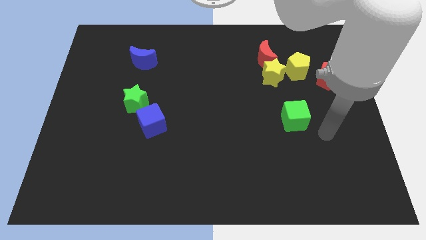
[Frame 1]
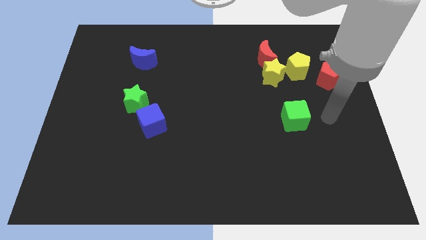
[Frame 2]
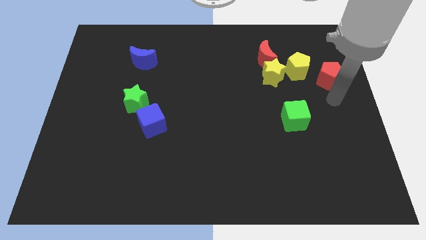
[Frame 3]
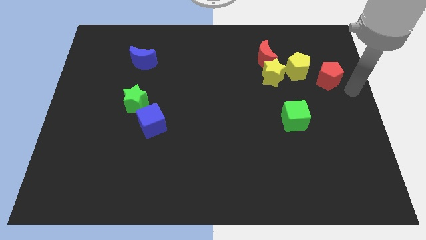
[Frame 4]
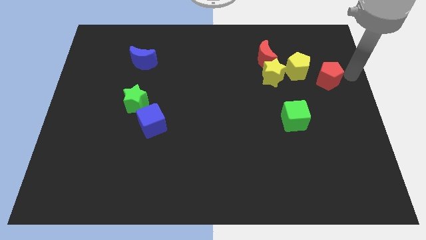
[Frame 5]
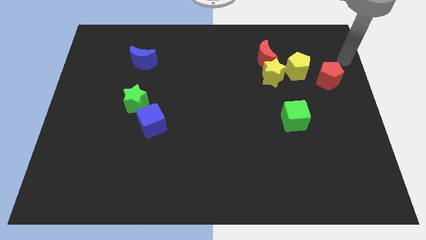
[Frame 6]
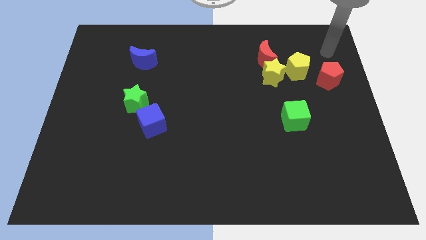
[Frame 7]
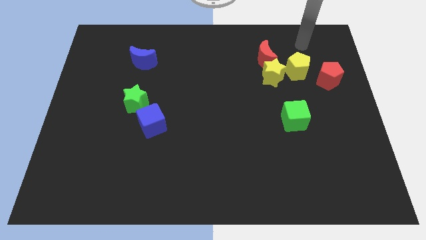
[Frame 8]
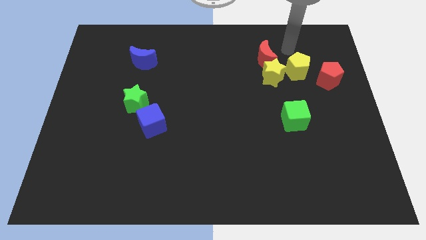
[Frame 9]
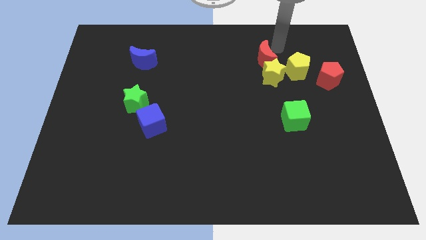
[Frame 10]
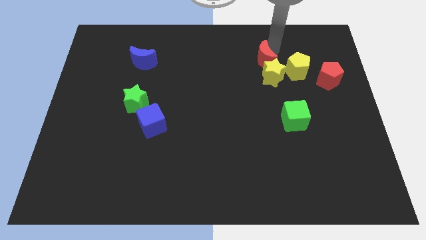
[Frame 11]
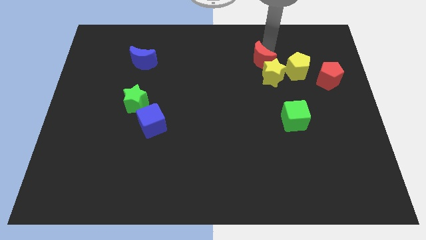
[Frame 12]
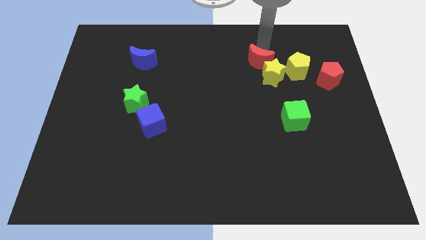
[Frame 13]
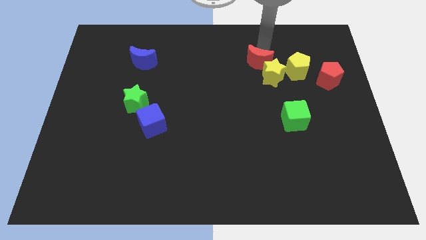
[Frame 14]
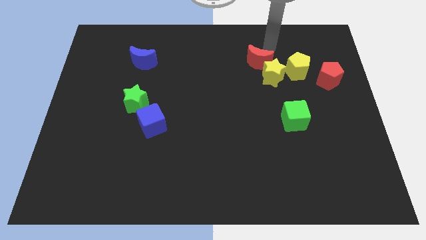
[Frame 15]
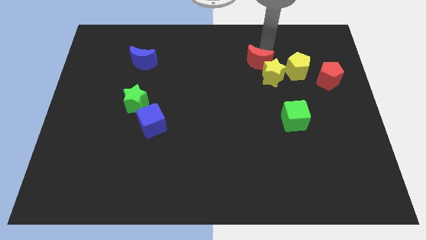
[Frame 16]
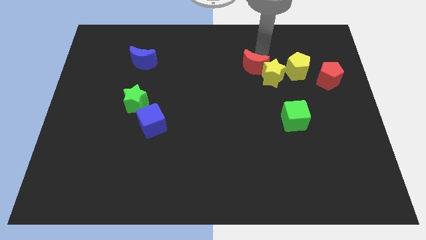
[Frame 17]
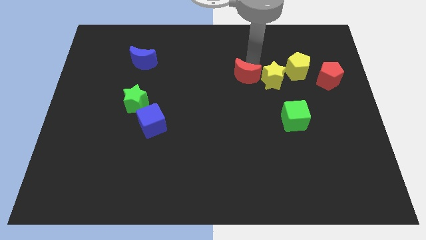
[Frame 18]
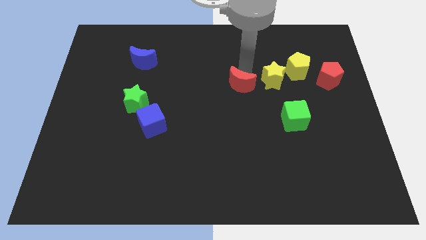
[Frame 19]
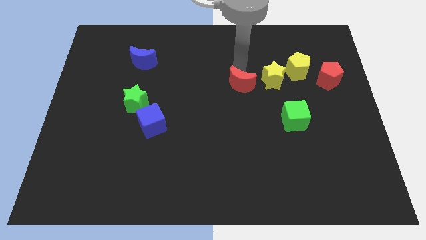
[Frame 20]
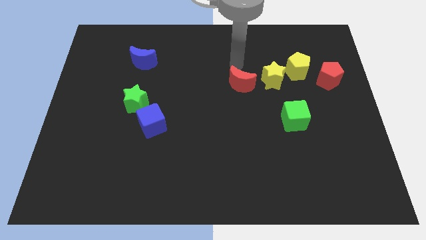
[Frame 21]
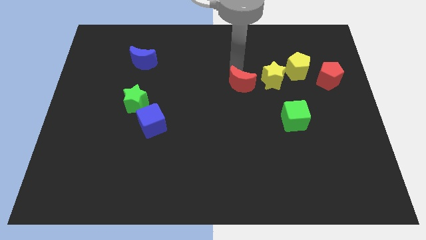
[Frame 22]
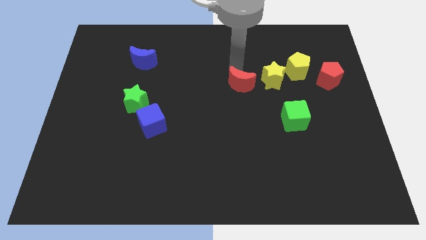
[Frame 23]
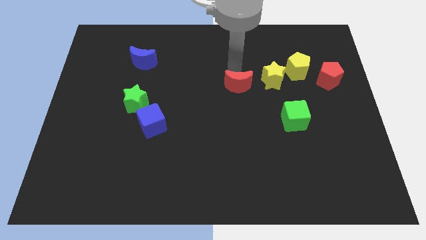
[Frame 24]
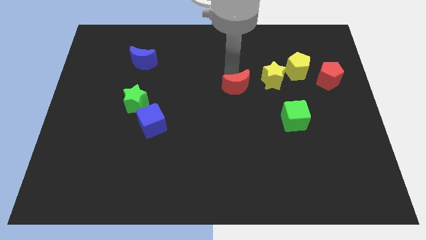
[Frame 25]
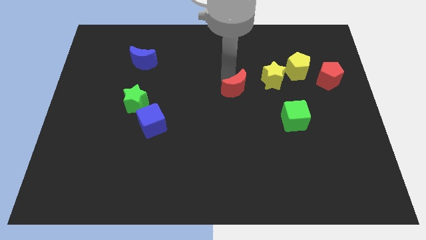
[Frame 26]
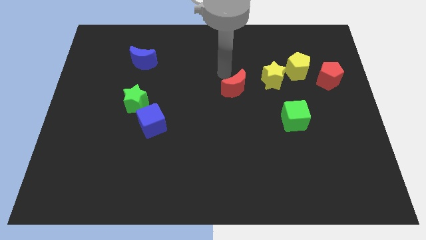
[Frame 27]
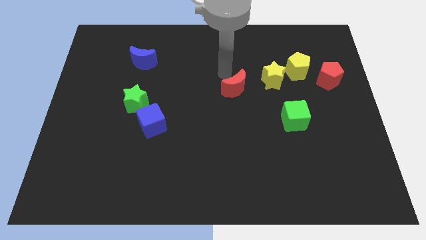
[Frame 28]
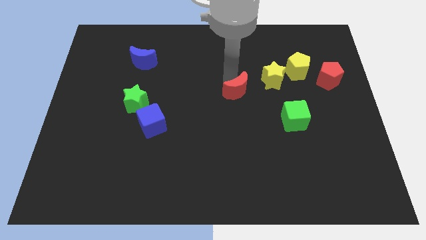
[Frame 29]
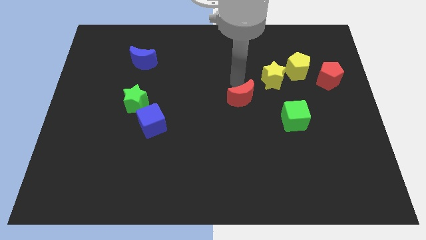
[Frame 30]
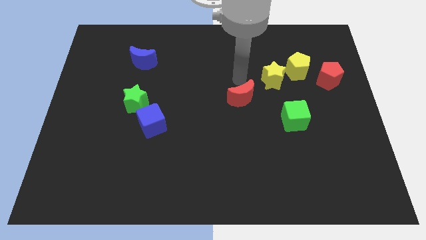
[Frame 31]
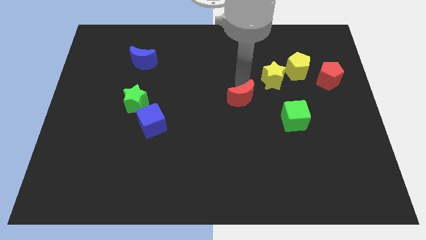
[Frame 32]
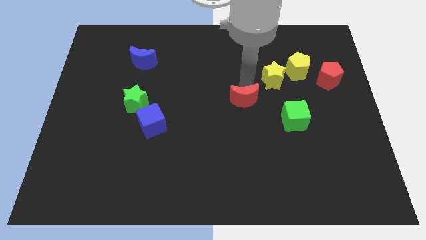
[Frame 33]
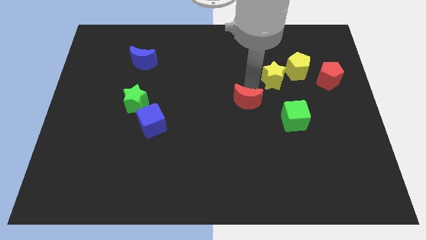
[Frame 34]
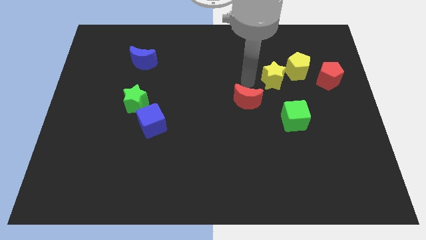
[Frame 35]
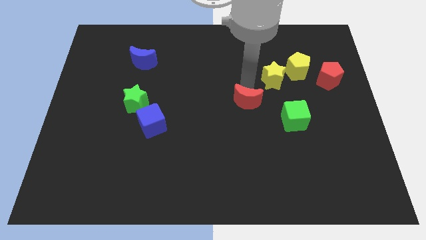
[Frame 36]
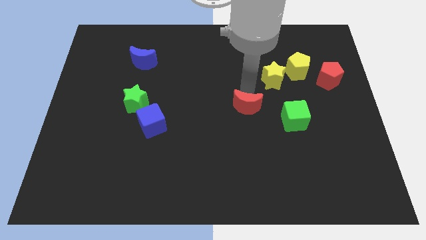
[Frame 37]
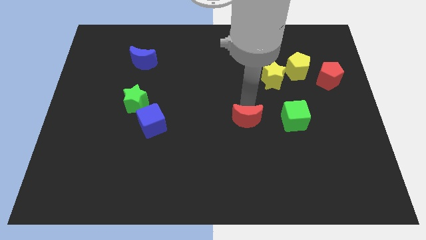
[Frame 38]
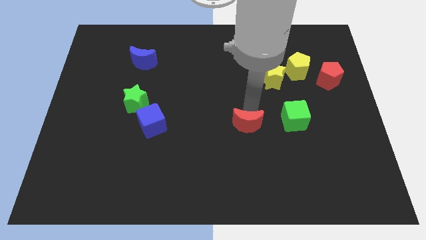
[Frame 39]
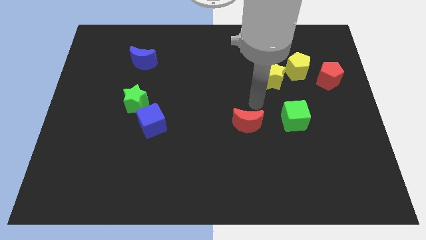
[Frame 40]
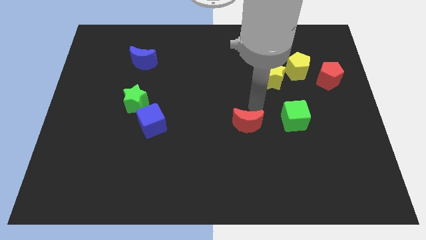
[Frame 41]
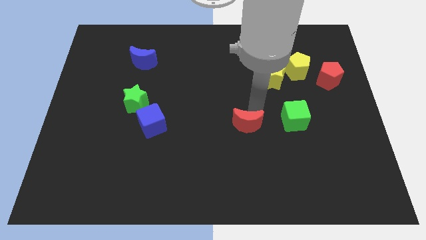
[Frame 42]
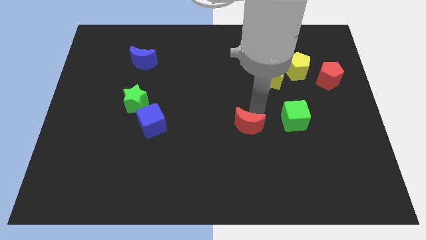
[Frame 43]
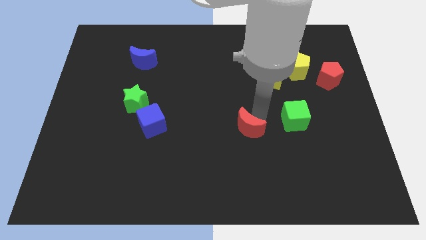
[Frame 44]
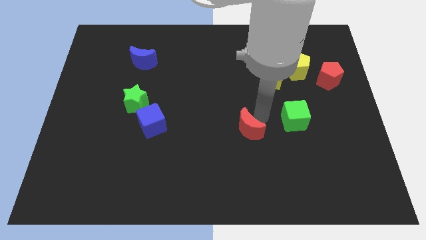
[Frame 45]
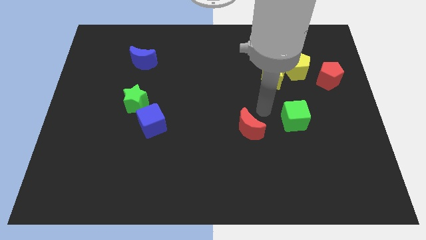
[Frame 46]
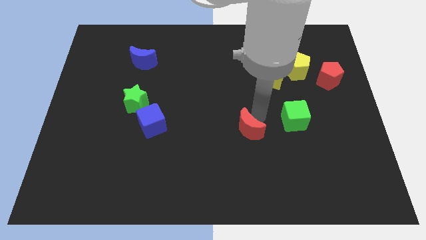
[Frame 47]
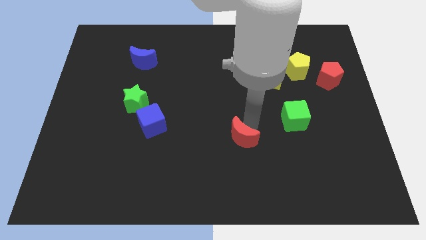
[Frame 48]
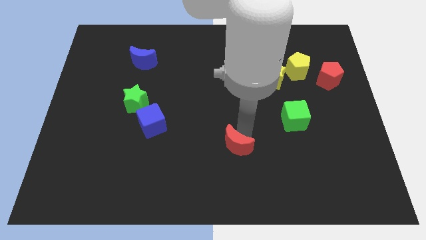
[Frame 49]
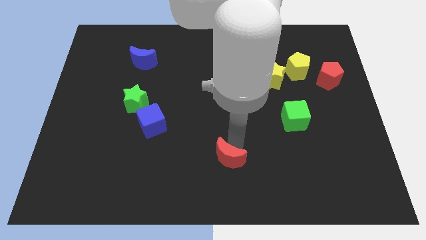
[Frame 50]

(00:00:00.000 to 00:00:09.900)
put the red moon to the bottom

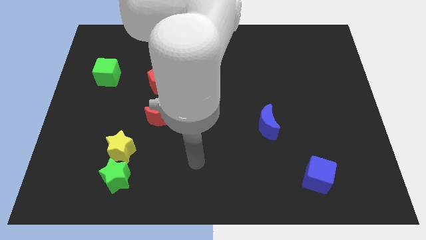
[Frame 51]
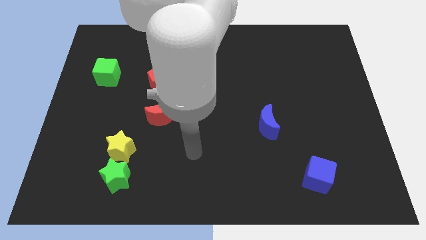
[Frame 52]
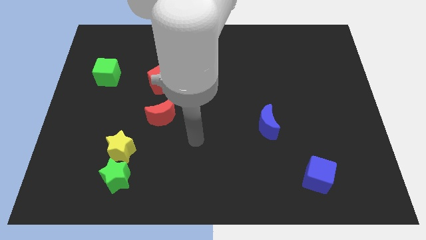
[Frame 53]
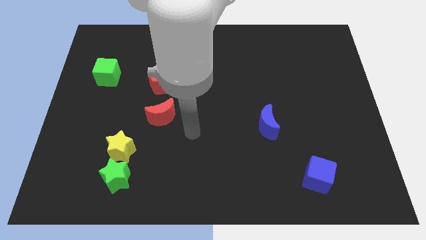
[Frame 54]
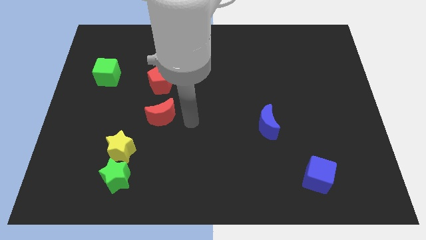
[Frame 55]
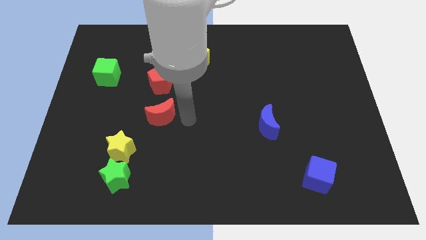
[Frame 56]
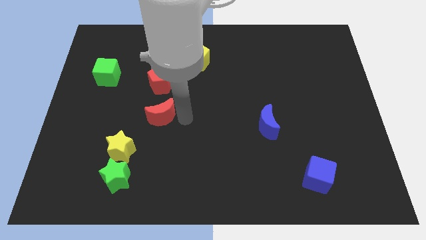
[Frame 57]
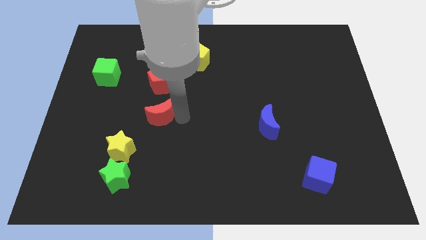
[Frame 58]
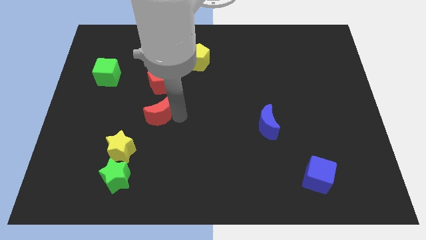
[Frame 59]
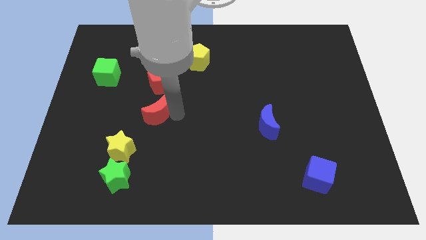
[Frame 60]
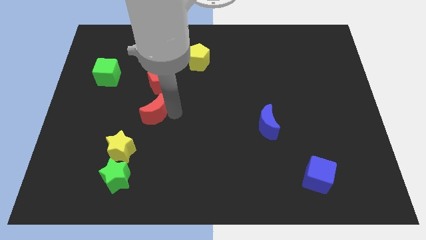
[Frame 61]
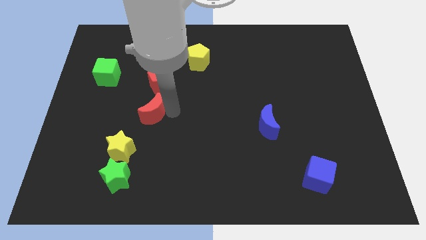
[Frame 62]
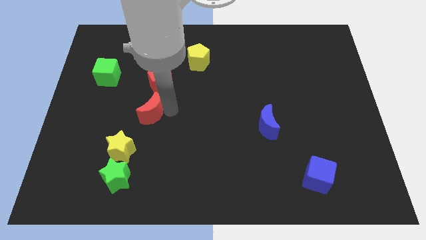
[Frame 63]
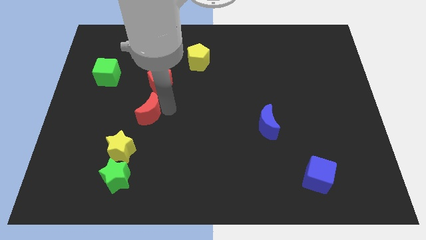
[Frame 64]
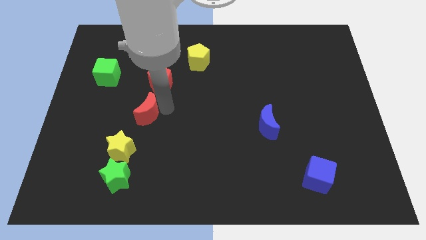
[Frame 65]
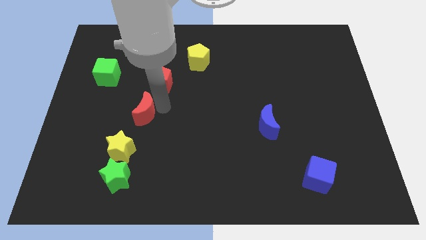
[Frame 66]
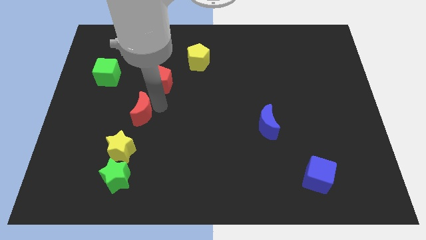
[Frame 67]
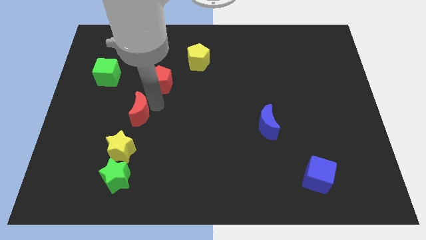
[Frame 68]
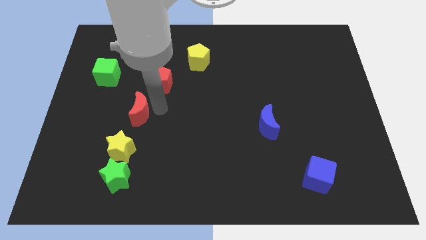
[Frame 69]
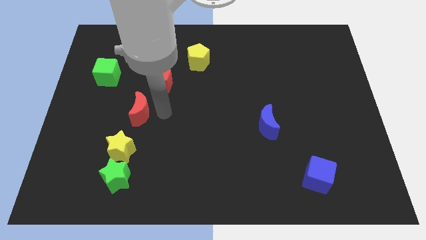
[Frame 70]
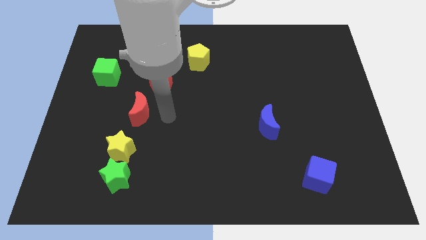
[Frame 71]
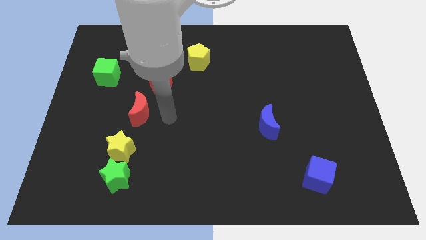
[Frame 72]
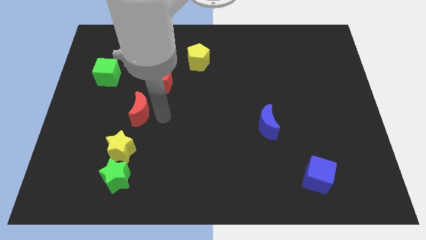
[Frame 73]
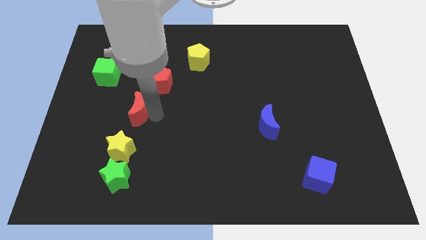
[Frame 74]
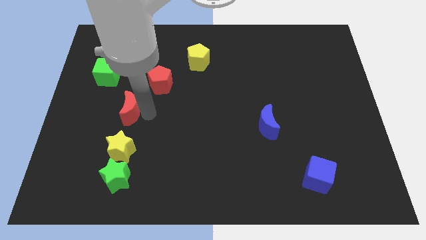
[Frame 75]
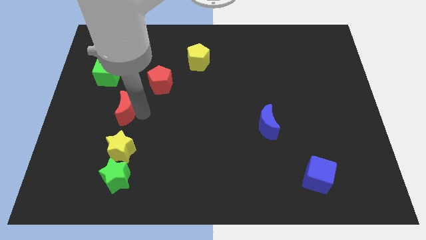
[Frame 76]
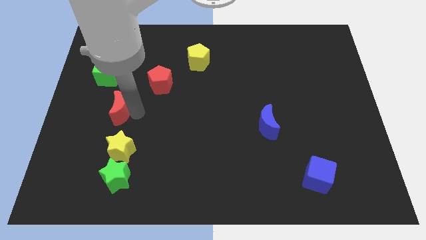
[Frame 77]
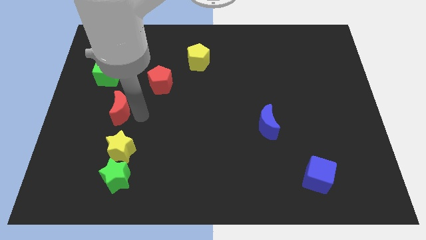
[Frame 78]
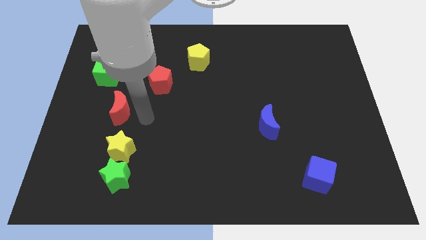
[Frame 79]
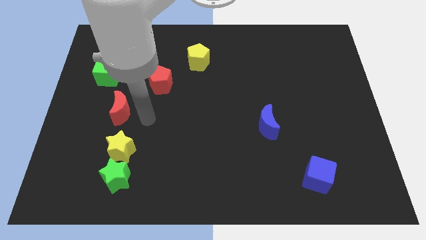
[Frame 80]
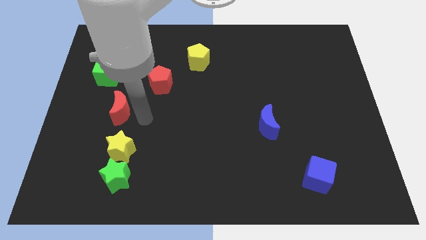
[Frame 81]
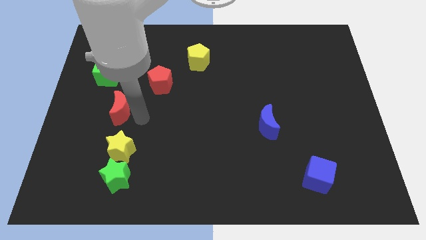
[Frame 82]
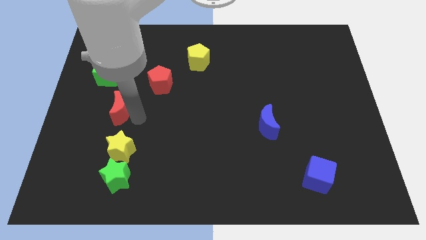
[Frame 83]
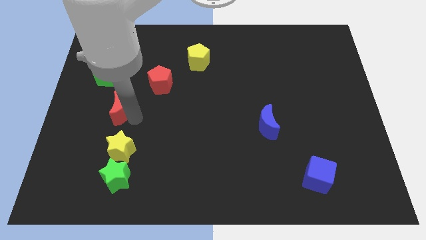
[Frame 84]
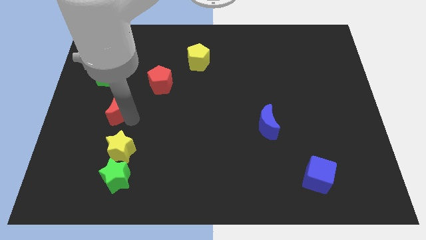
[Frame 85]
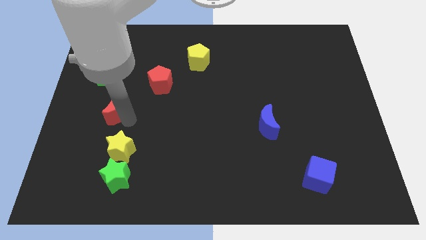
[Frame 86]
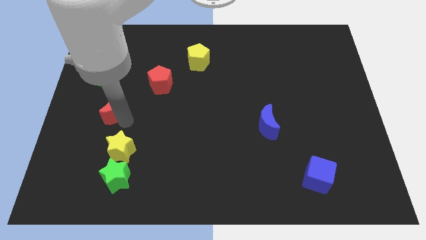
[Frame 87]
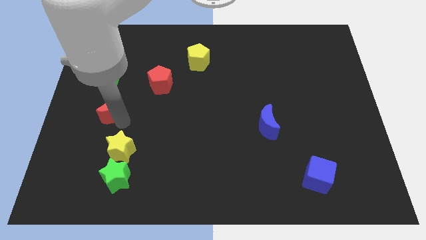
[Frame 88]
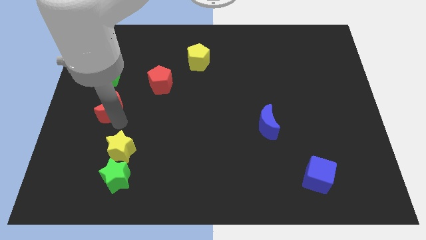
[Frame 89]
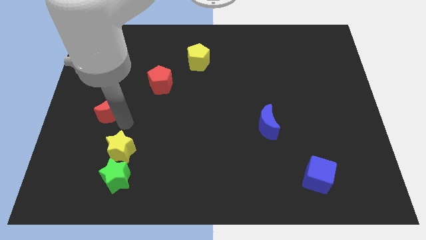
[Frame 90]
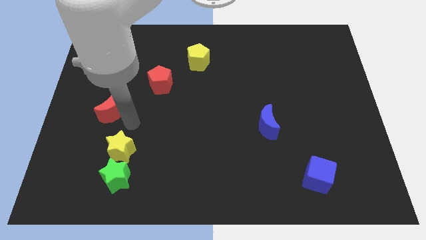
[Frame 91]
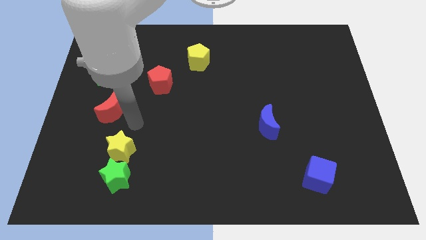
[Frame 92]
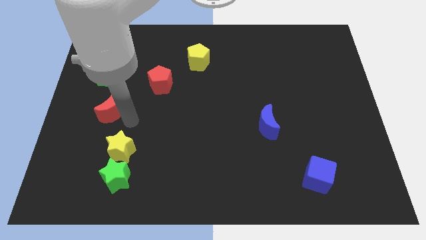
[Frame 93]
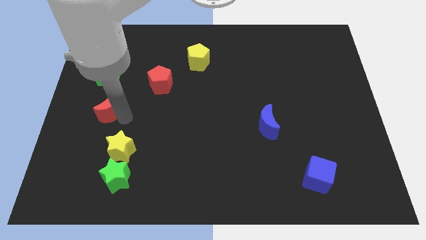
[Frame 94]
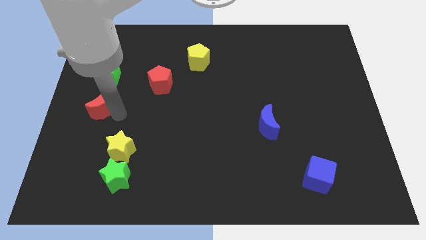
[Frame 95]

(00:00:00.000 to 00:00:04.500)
put the red moon to the center left
